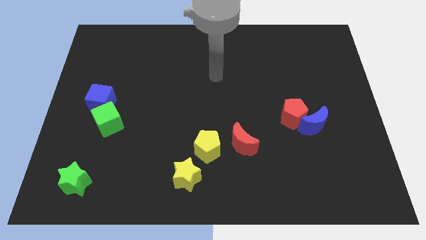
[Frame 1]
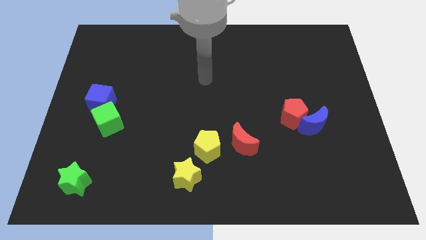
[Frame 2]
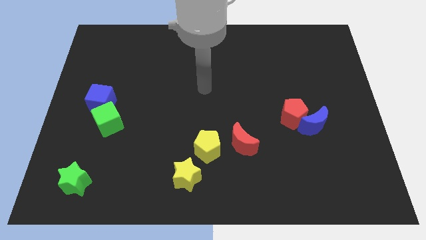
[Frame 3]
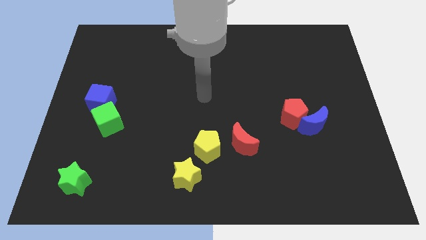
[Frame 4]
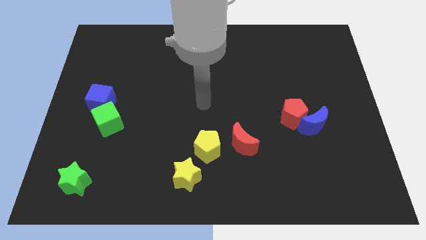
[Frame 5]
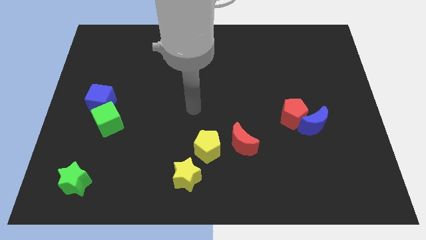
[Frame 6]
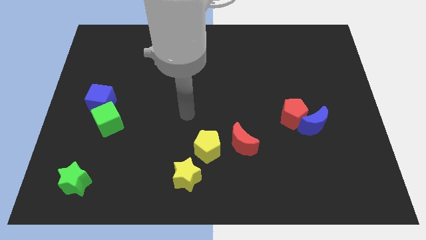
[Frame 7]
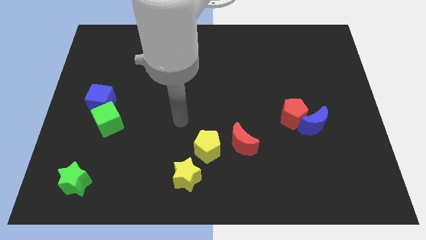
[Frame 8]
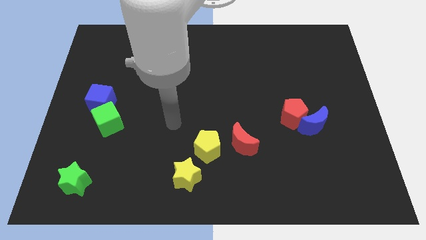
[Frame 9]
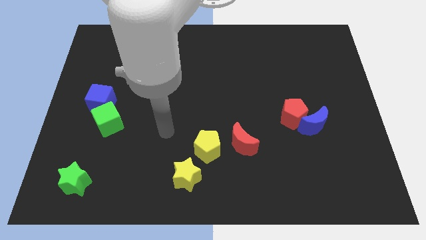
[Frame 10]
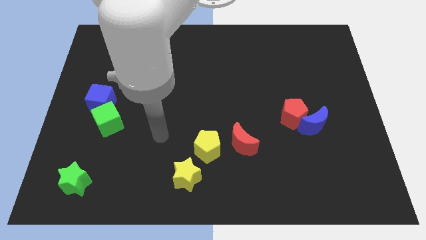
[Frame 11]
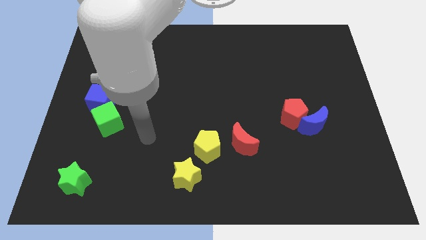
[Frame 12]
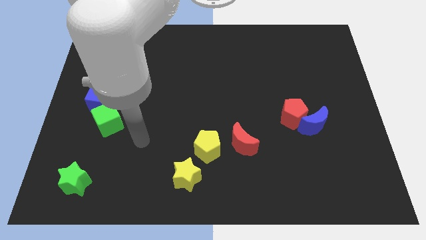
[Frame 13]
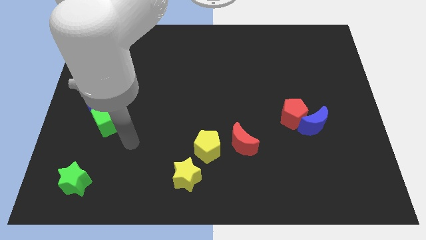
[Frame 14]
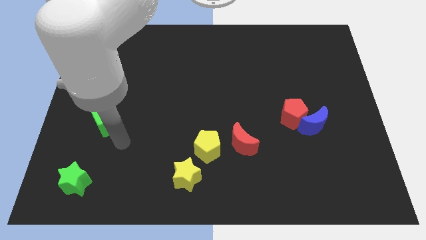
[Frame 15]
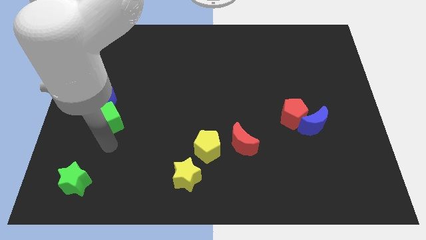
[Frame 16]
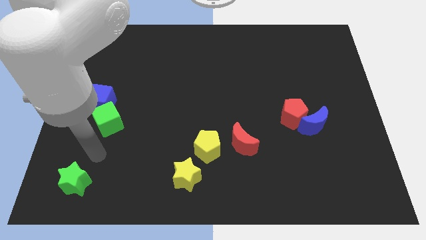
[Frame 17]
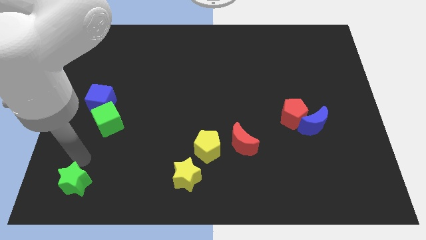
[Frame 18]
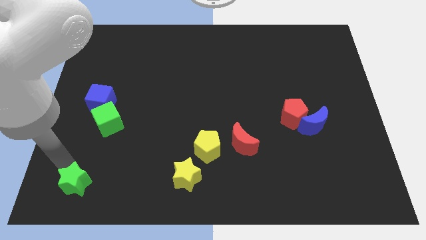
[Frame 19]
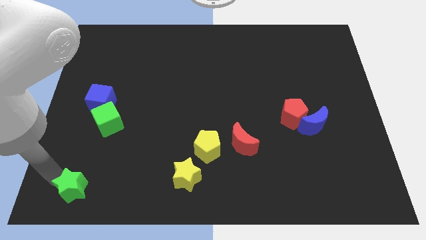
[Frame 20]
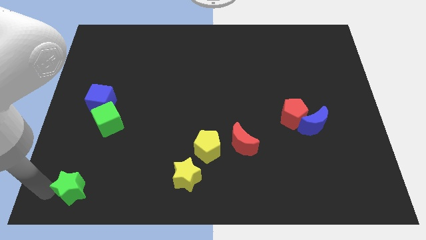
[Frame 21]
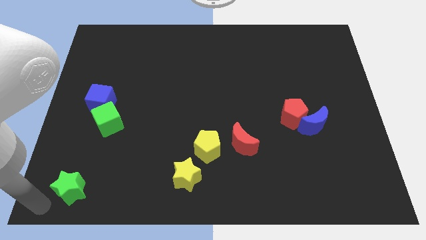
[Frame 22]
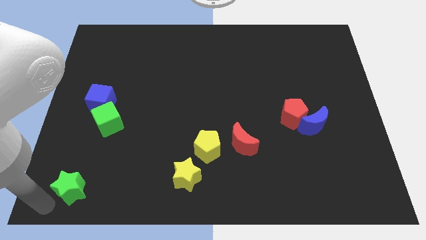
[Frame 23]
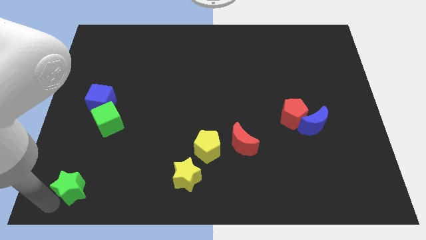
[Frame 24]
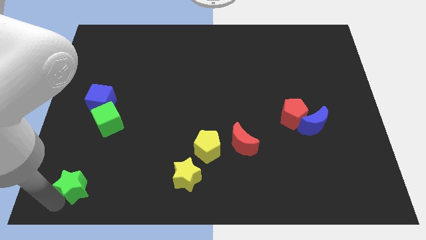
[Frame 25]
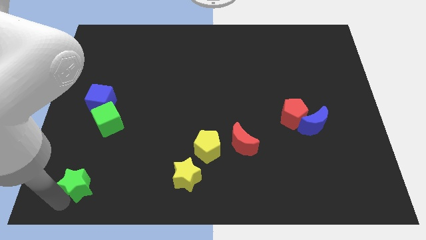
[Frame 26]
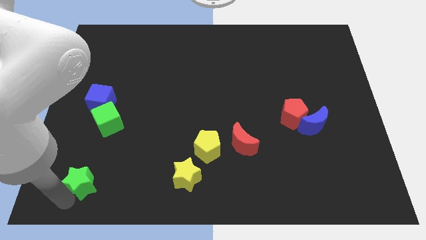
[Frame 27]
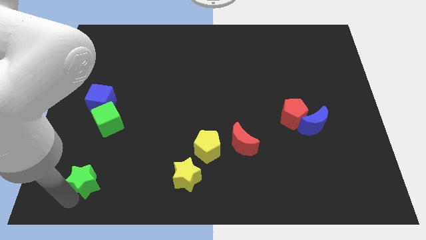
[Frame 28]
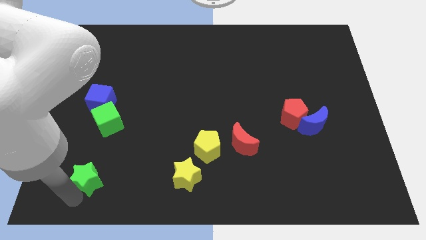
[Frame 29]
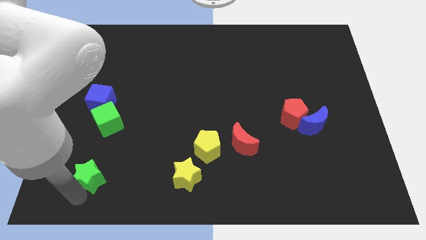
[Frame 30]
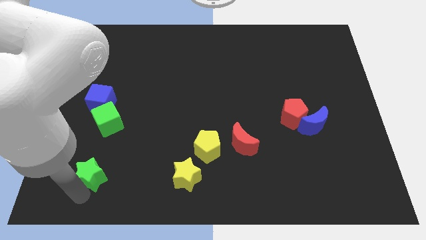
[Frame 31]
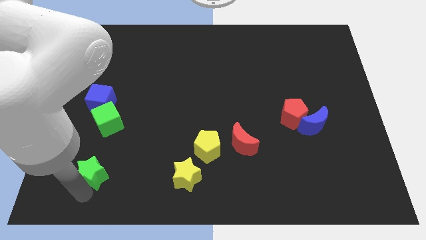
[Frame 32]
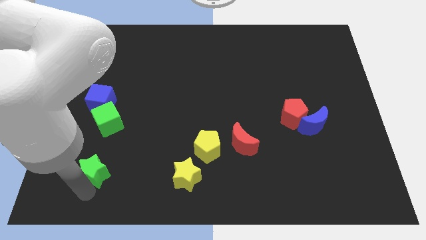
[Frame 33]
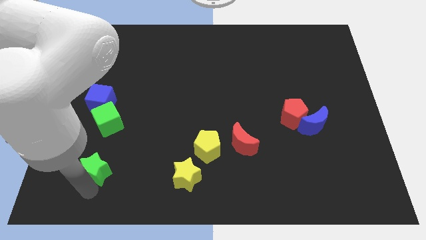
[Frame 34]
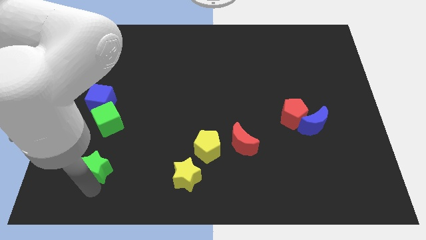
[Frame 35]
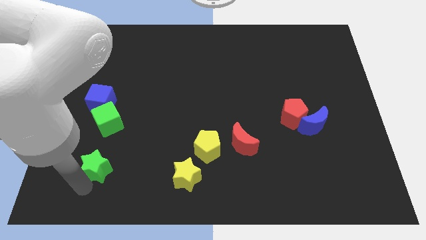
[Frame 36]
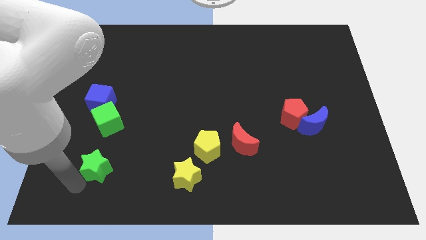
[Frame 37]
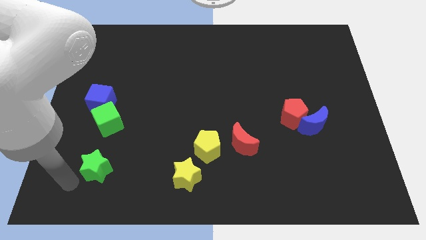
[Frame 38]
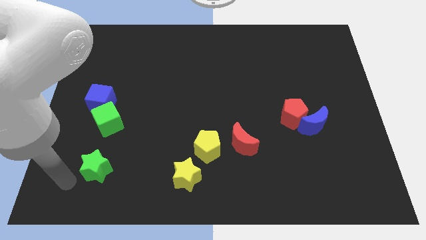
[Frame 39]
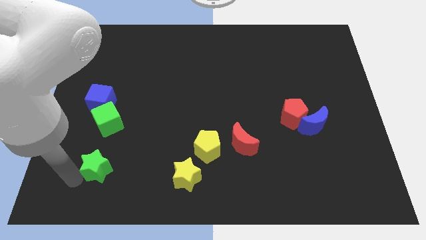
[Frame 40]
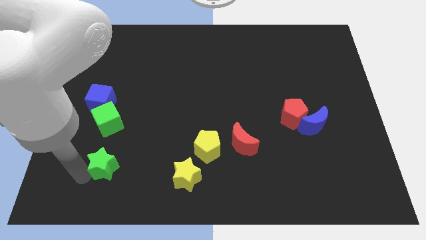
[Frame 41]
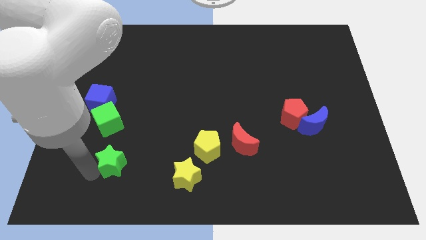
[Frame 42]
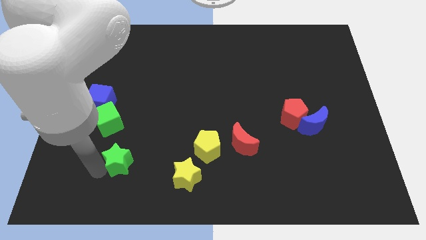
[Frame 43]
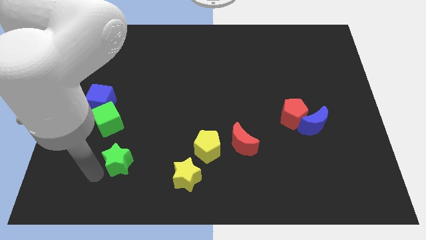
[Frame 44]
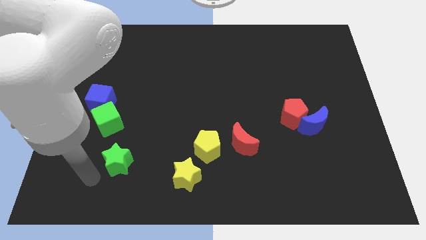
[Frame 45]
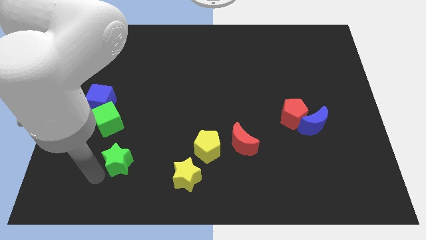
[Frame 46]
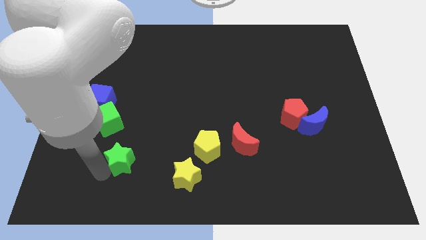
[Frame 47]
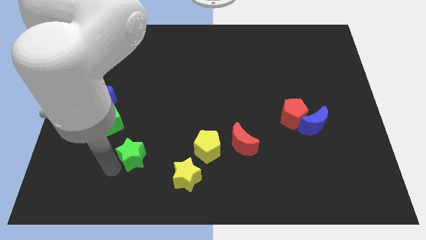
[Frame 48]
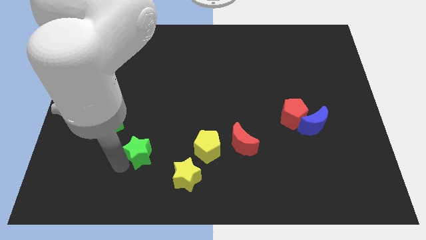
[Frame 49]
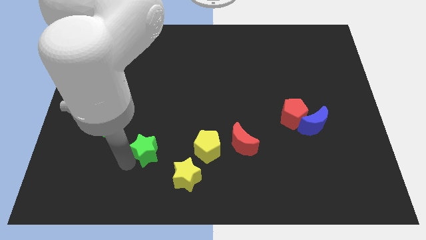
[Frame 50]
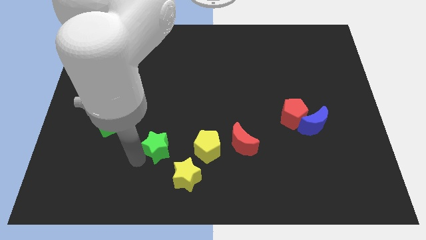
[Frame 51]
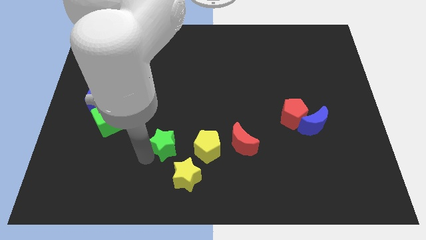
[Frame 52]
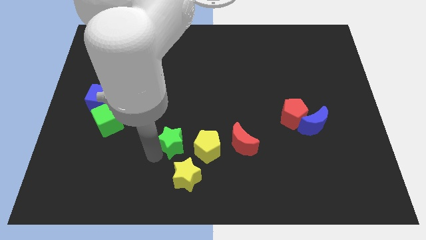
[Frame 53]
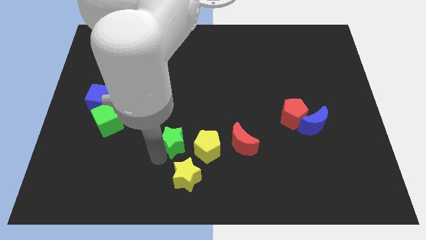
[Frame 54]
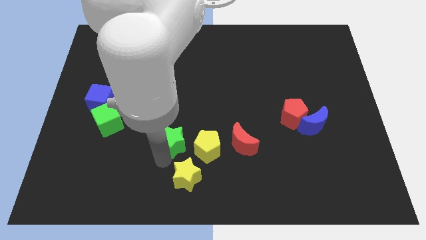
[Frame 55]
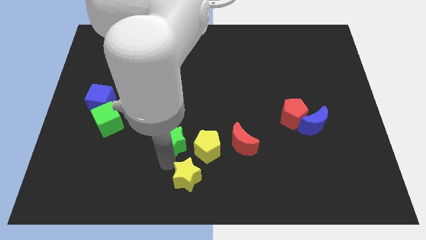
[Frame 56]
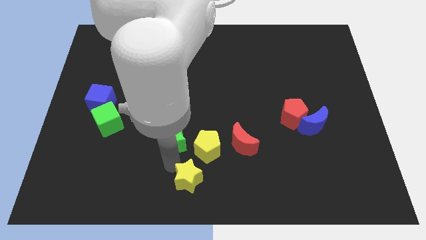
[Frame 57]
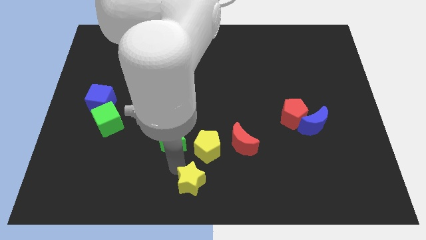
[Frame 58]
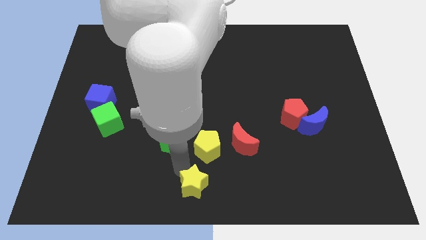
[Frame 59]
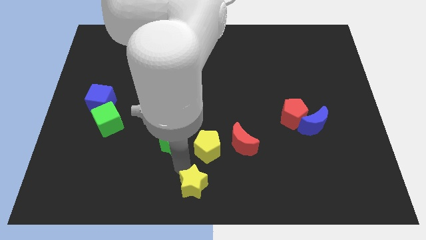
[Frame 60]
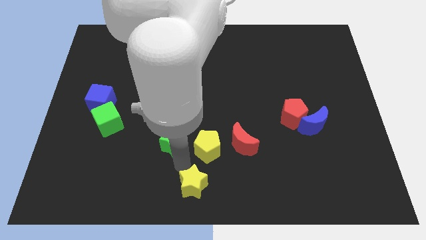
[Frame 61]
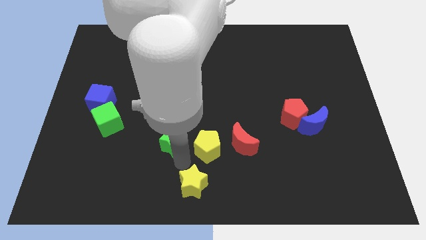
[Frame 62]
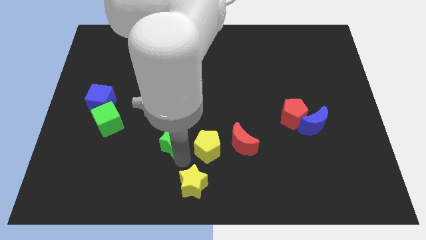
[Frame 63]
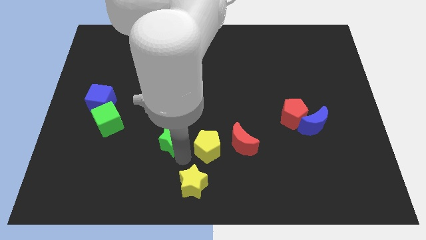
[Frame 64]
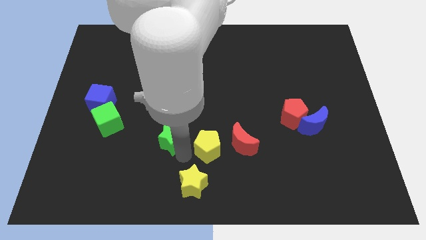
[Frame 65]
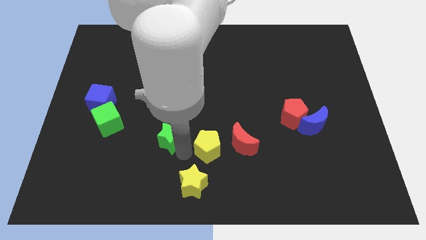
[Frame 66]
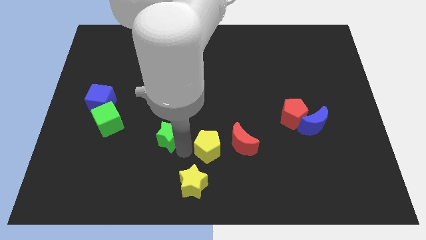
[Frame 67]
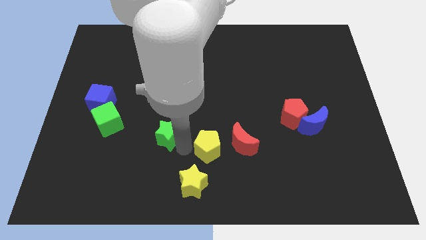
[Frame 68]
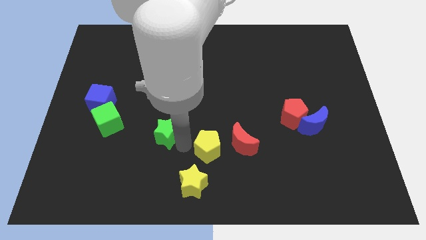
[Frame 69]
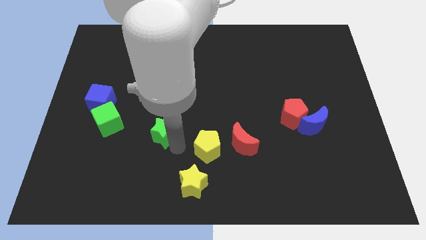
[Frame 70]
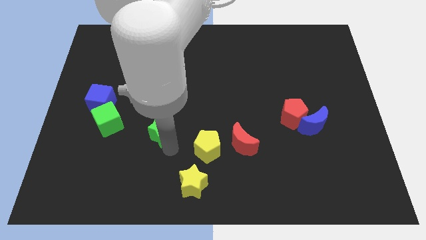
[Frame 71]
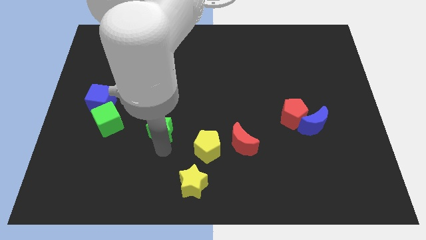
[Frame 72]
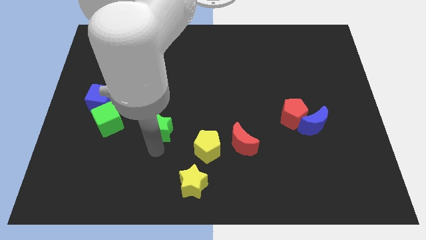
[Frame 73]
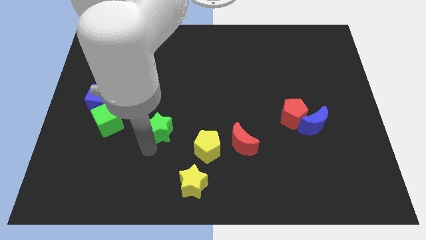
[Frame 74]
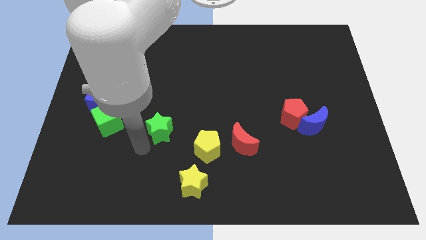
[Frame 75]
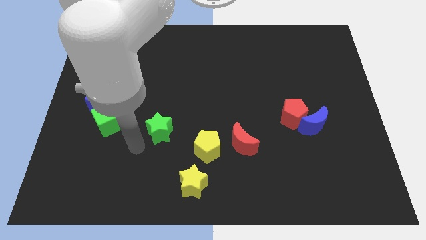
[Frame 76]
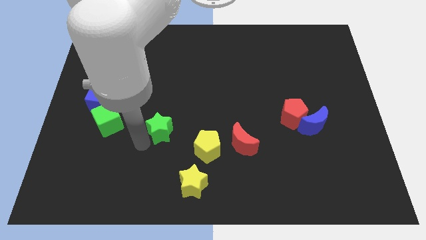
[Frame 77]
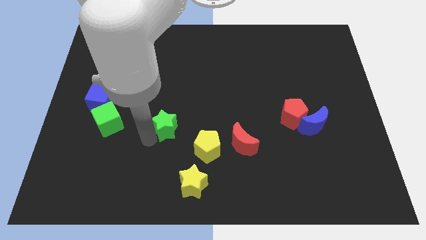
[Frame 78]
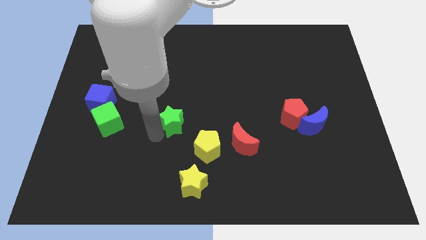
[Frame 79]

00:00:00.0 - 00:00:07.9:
move the green star to the middle
